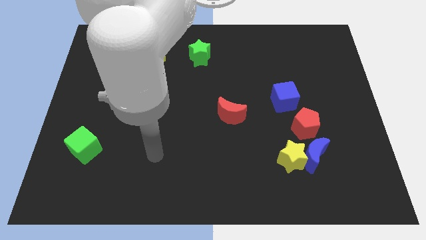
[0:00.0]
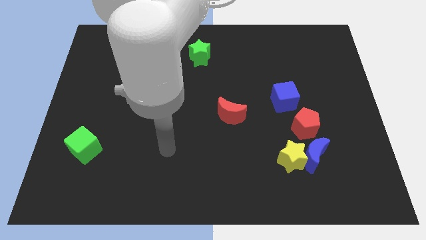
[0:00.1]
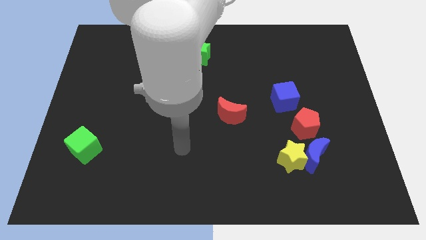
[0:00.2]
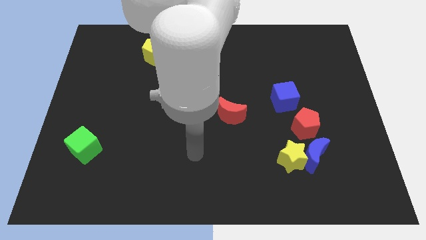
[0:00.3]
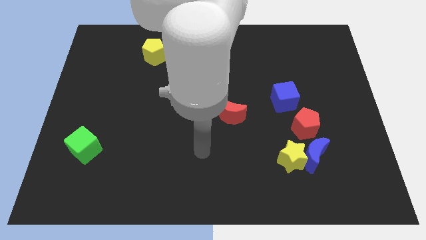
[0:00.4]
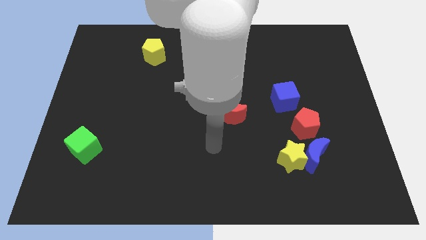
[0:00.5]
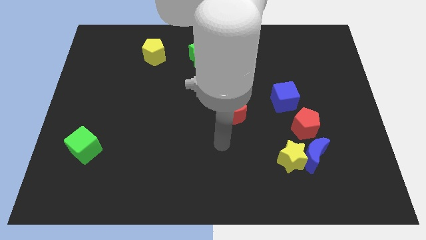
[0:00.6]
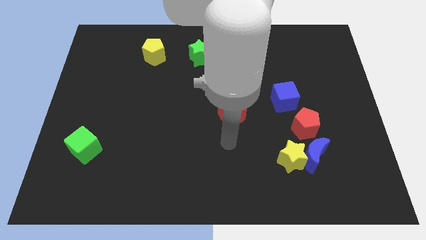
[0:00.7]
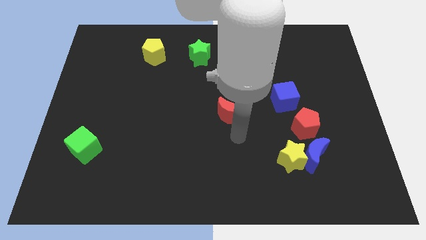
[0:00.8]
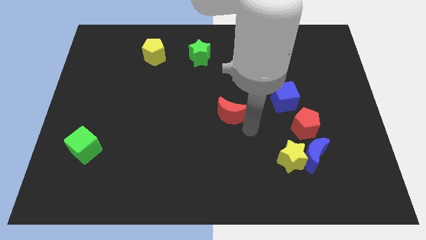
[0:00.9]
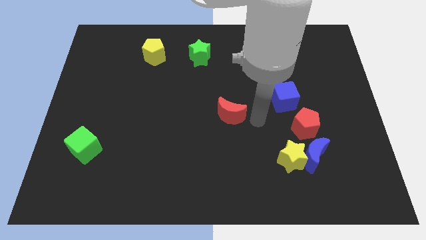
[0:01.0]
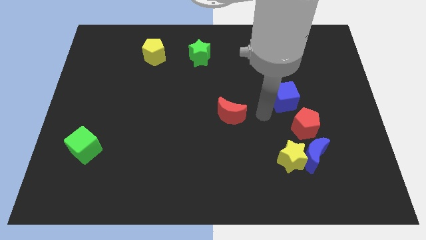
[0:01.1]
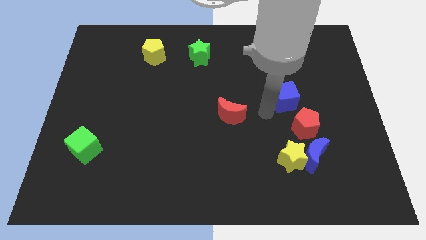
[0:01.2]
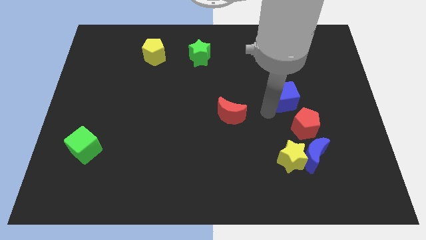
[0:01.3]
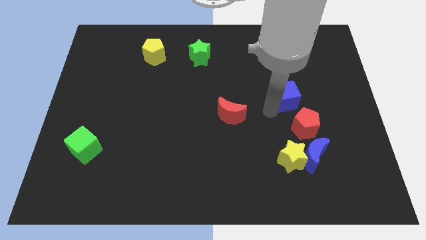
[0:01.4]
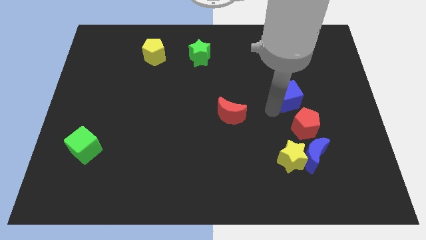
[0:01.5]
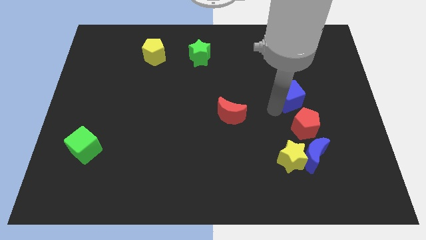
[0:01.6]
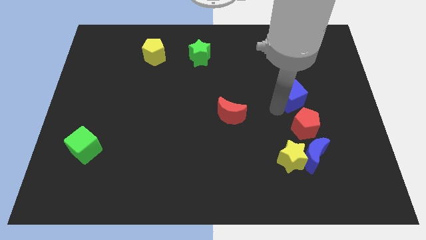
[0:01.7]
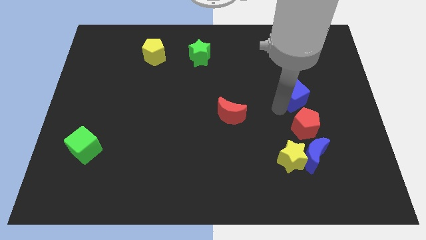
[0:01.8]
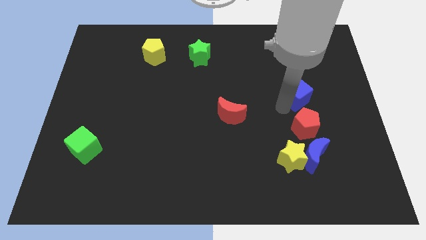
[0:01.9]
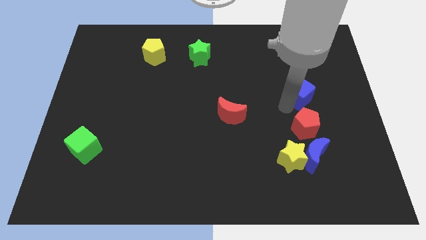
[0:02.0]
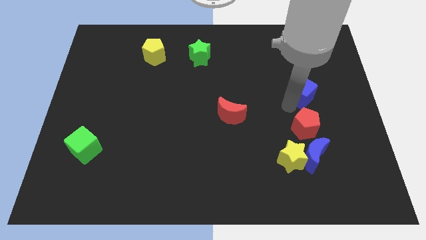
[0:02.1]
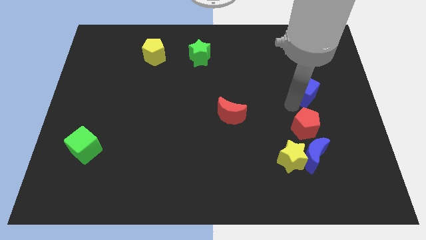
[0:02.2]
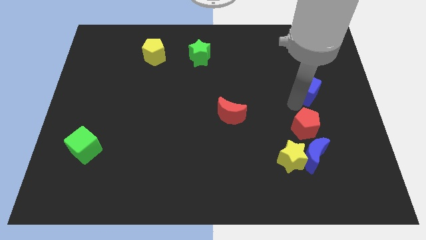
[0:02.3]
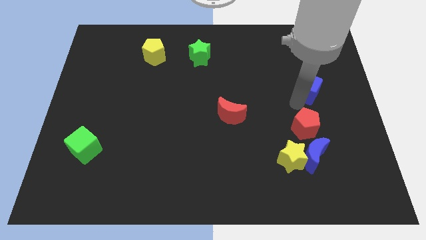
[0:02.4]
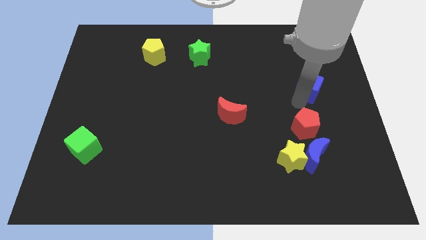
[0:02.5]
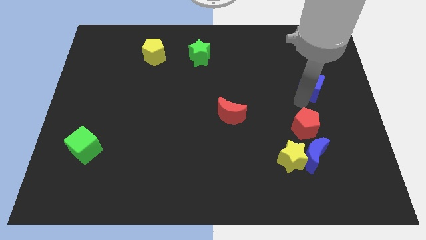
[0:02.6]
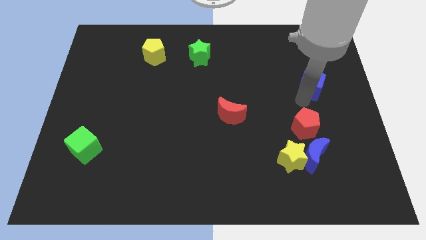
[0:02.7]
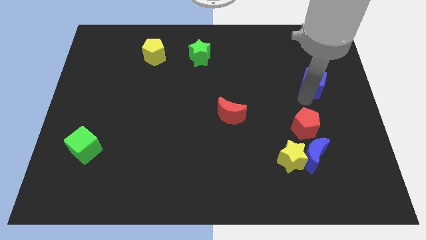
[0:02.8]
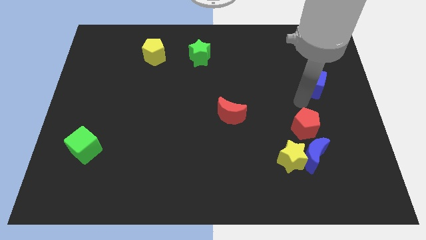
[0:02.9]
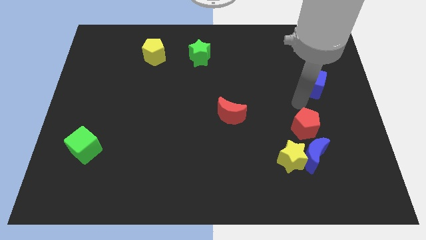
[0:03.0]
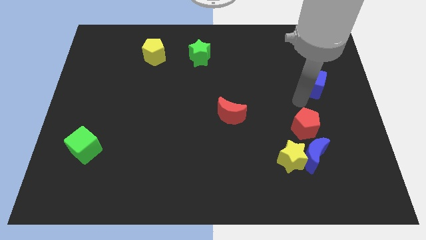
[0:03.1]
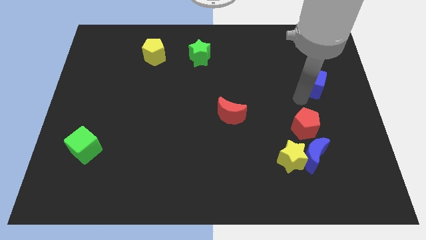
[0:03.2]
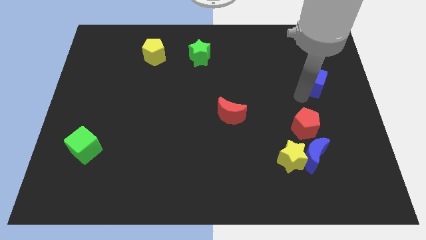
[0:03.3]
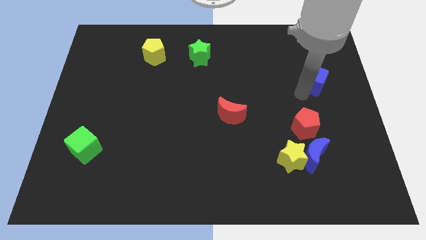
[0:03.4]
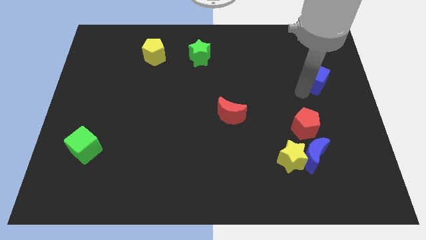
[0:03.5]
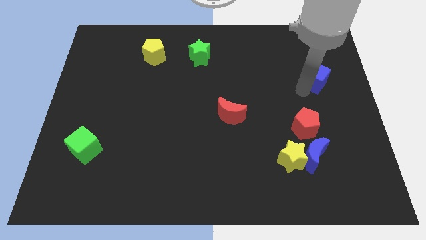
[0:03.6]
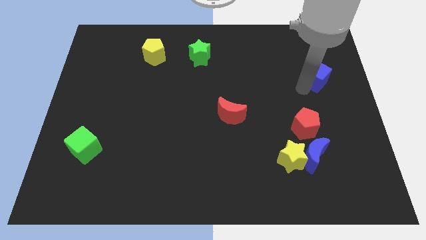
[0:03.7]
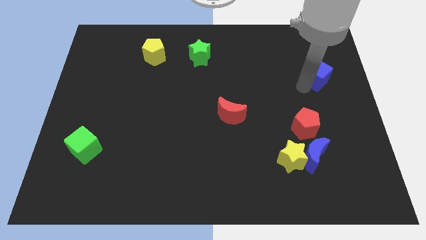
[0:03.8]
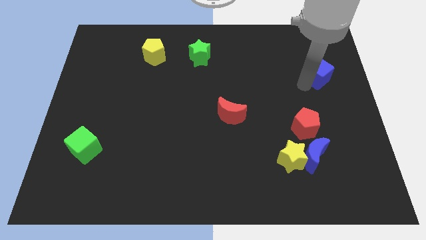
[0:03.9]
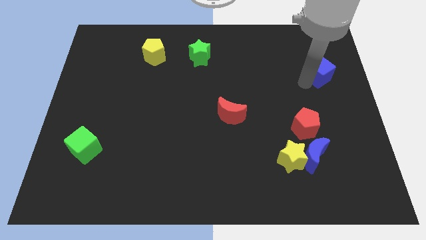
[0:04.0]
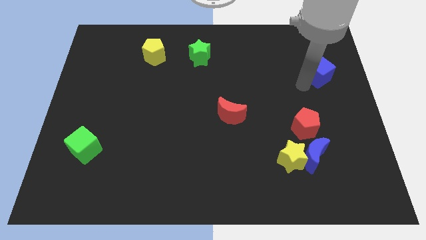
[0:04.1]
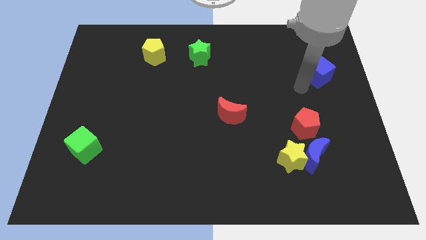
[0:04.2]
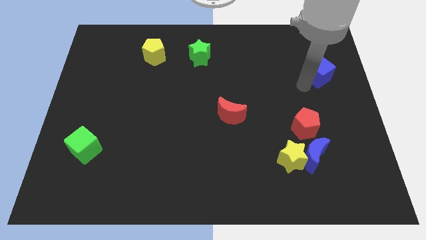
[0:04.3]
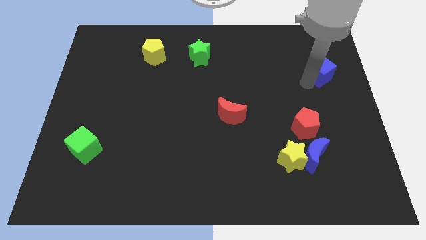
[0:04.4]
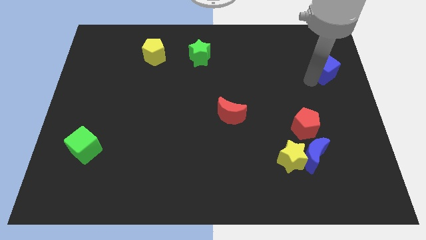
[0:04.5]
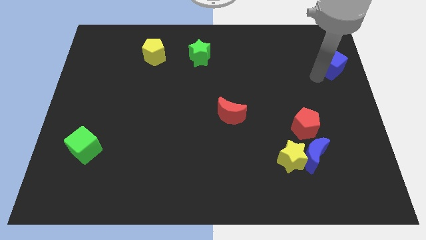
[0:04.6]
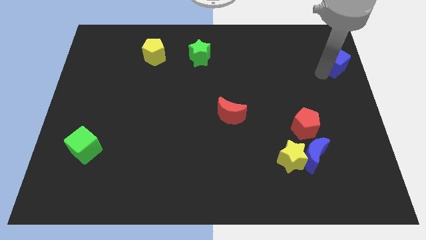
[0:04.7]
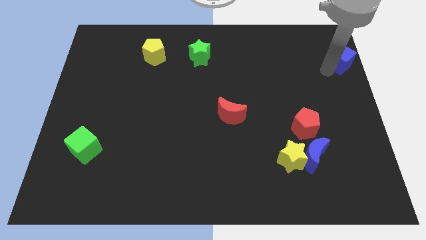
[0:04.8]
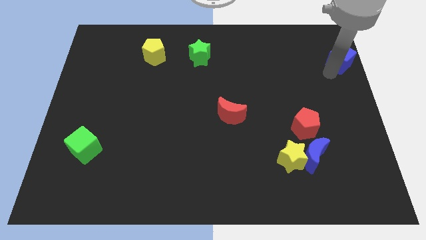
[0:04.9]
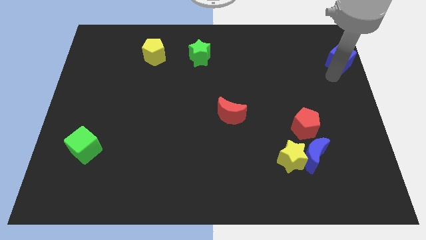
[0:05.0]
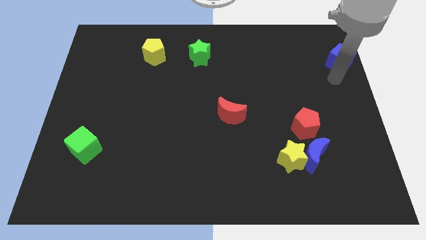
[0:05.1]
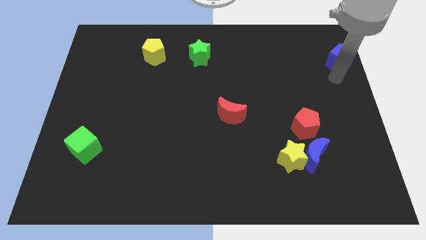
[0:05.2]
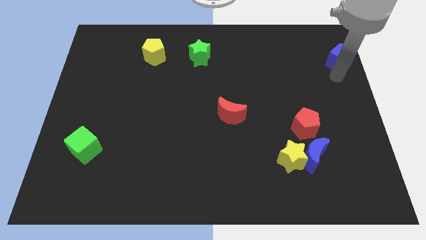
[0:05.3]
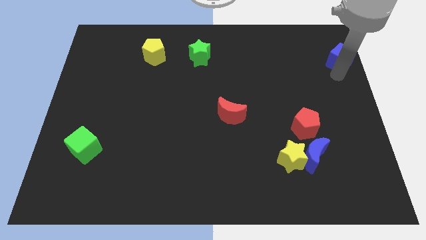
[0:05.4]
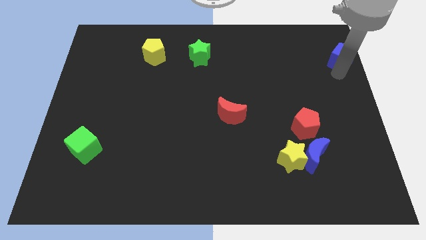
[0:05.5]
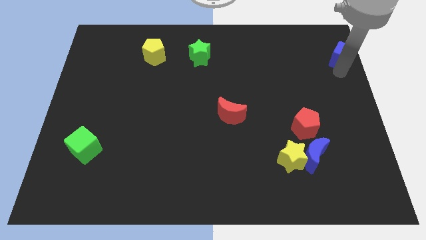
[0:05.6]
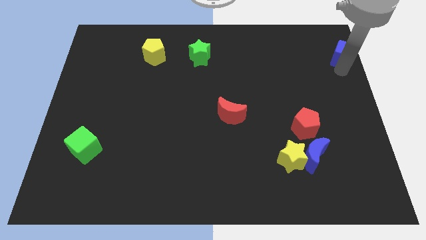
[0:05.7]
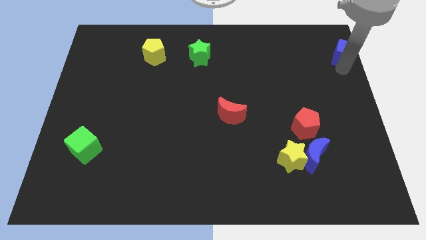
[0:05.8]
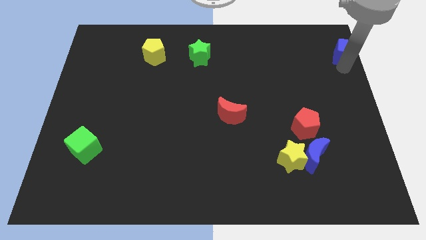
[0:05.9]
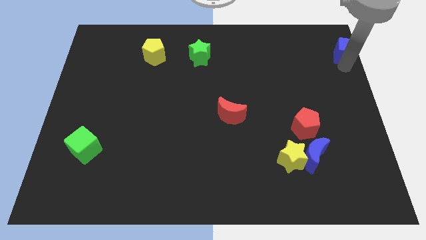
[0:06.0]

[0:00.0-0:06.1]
slide the blue cube to the top right

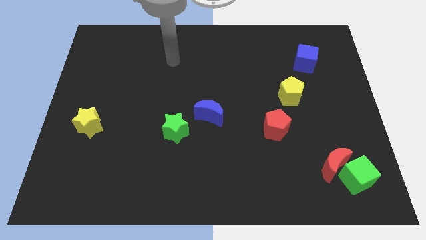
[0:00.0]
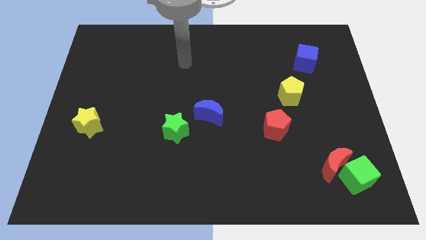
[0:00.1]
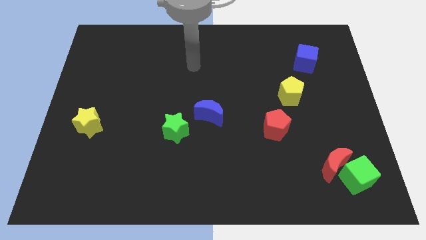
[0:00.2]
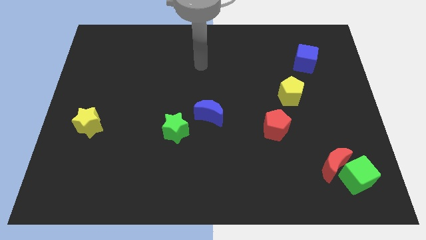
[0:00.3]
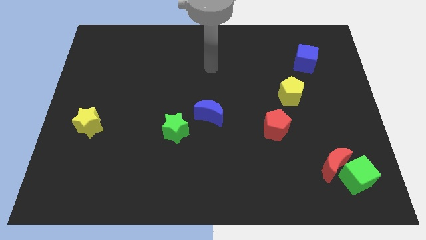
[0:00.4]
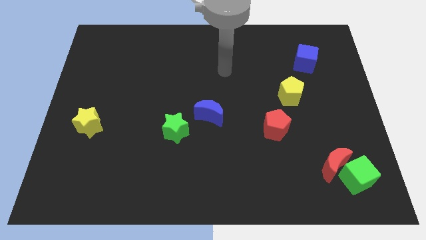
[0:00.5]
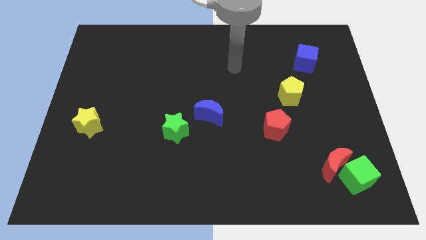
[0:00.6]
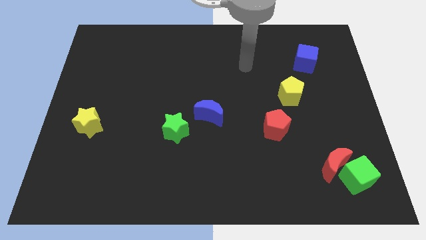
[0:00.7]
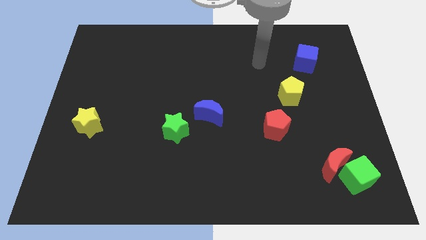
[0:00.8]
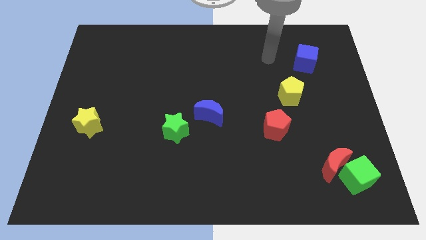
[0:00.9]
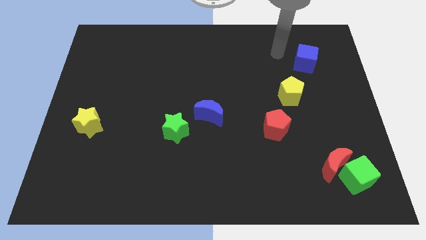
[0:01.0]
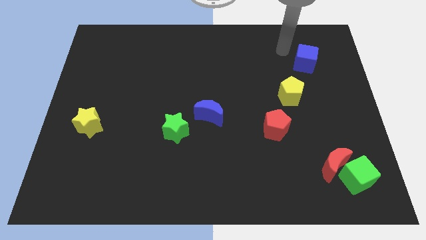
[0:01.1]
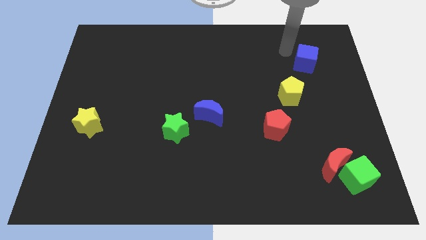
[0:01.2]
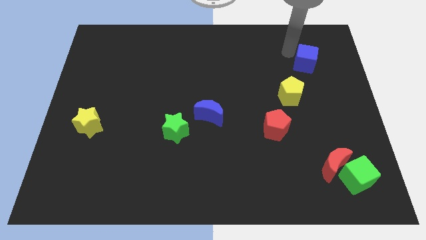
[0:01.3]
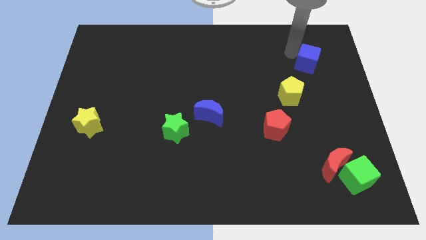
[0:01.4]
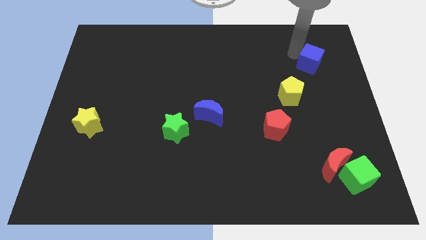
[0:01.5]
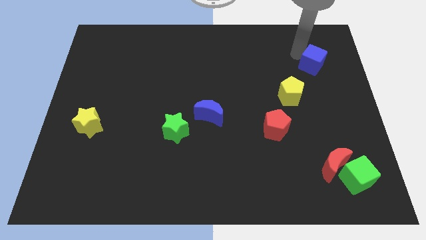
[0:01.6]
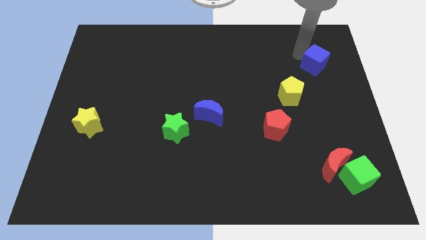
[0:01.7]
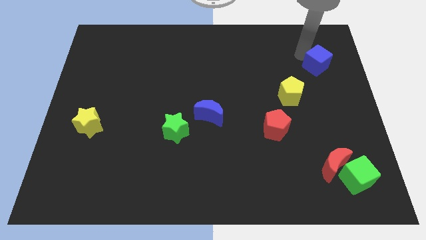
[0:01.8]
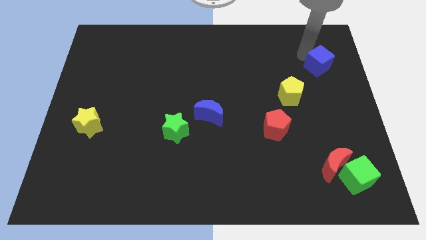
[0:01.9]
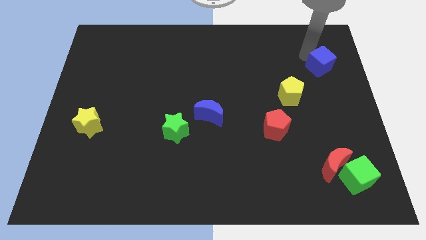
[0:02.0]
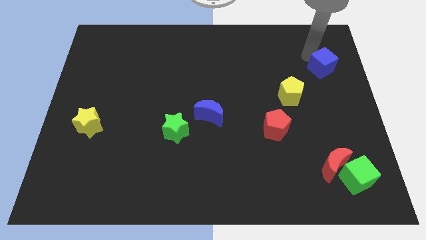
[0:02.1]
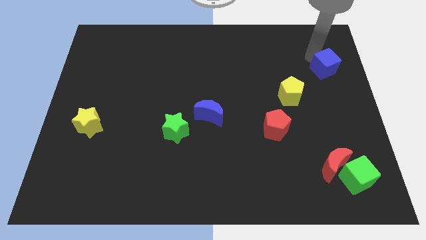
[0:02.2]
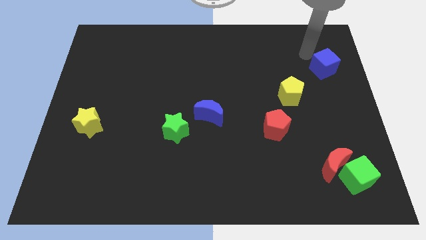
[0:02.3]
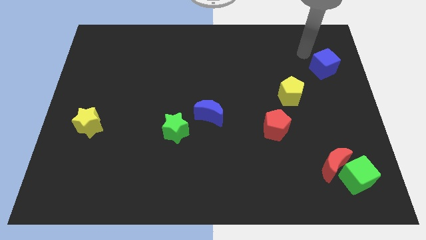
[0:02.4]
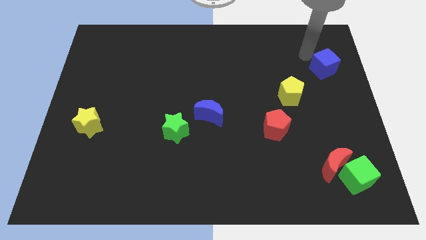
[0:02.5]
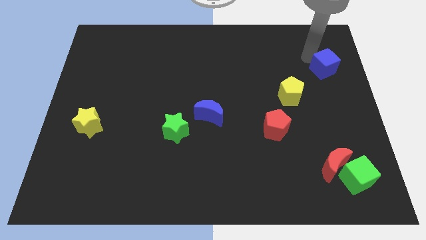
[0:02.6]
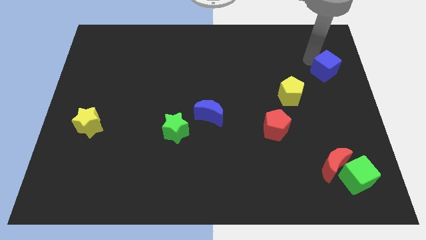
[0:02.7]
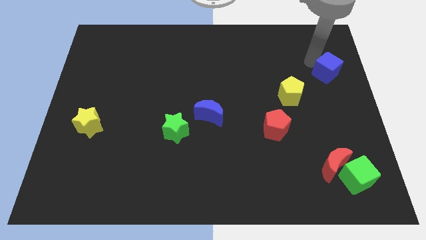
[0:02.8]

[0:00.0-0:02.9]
slide the blue cube to the right side
